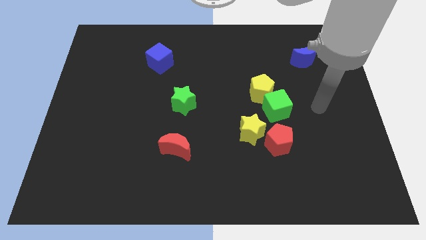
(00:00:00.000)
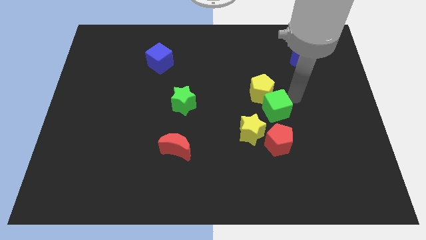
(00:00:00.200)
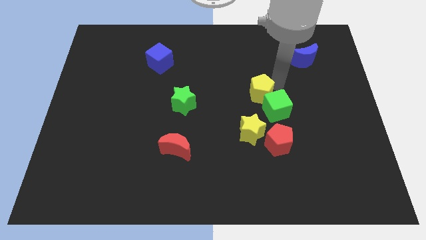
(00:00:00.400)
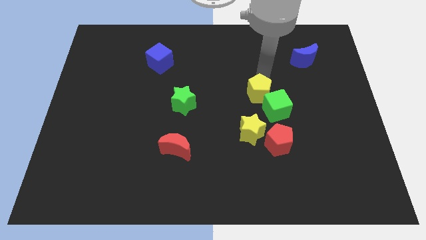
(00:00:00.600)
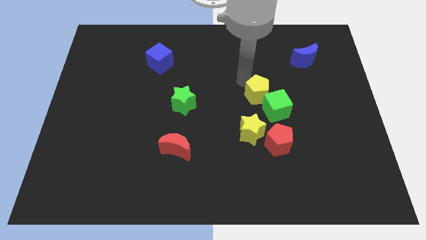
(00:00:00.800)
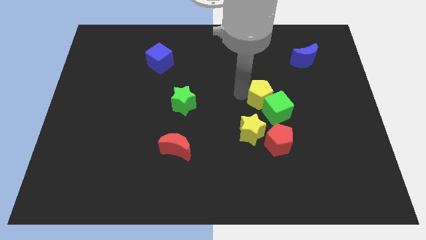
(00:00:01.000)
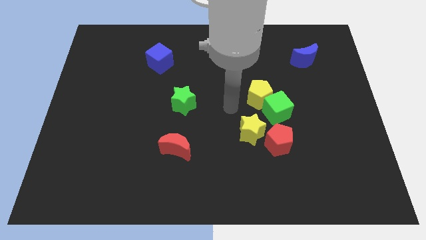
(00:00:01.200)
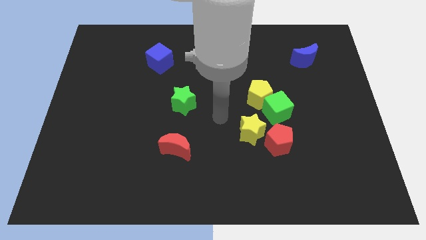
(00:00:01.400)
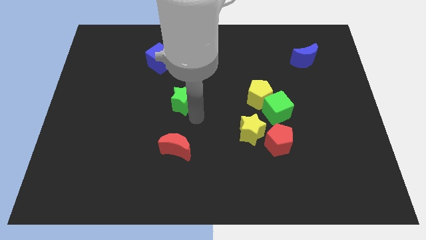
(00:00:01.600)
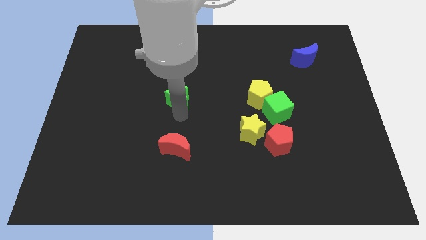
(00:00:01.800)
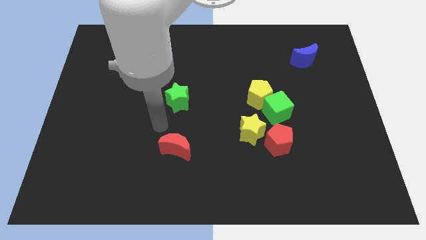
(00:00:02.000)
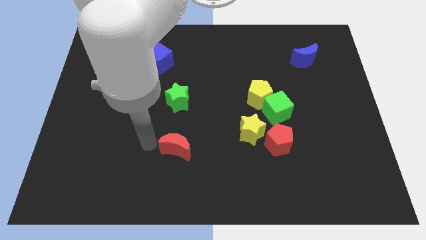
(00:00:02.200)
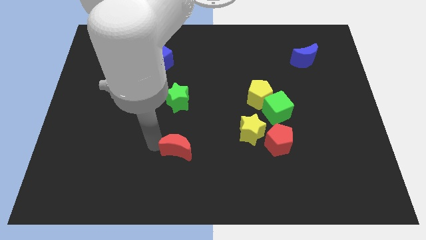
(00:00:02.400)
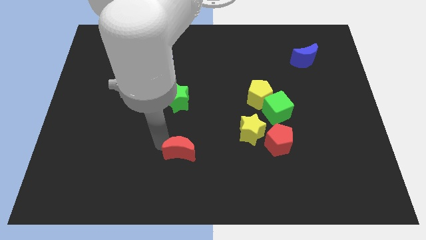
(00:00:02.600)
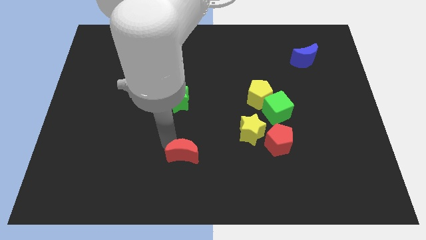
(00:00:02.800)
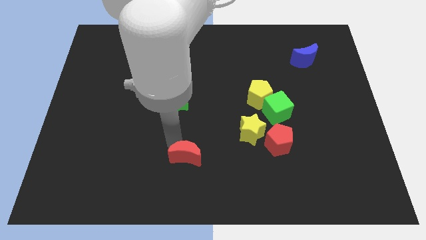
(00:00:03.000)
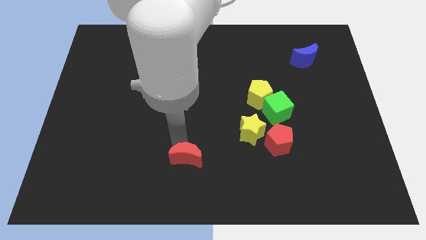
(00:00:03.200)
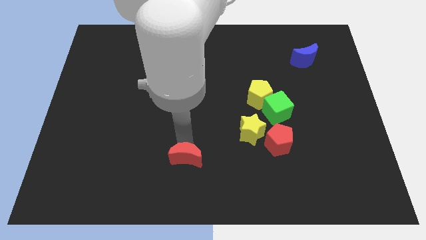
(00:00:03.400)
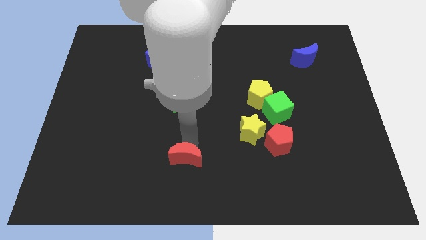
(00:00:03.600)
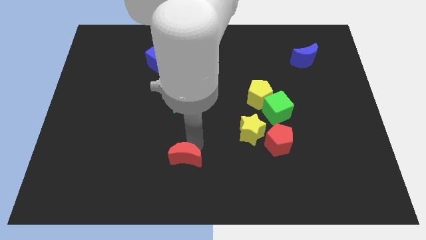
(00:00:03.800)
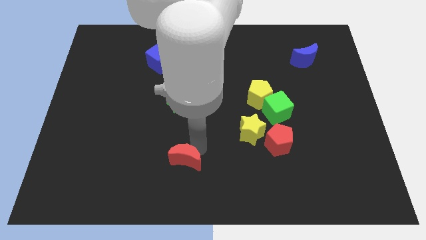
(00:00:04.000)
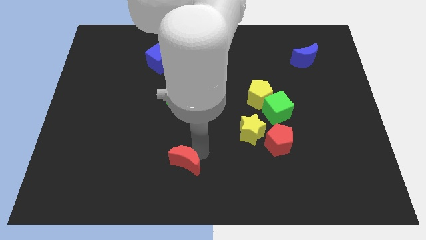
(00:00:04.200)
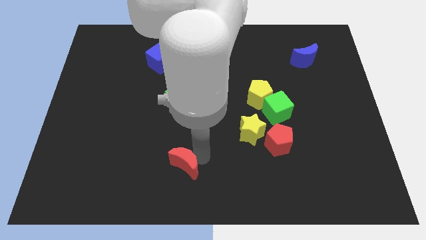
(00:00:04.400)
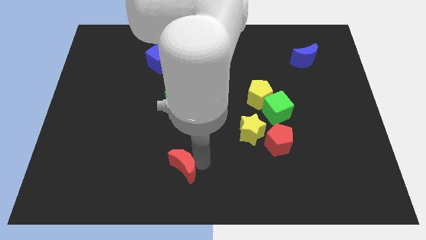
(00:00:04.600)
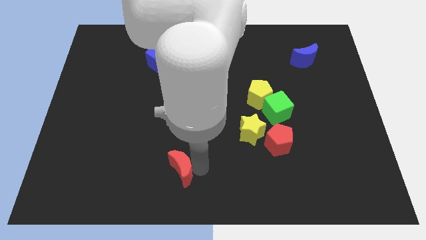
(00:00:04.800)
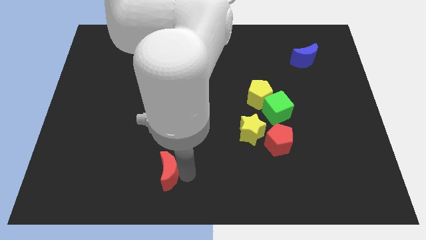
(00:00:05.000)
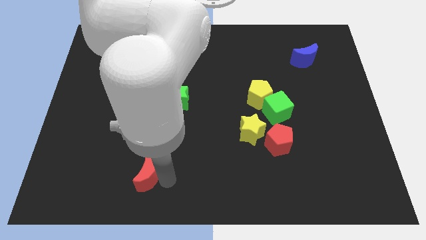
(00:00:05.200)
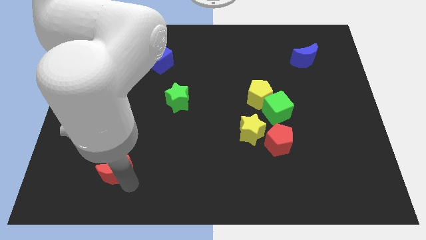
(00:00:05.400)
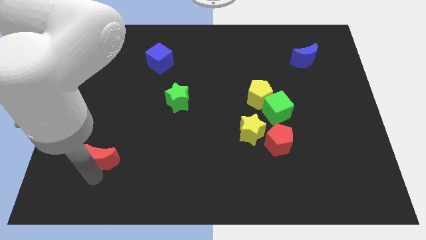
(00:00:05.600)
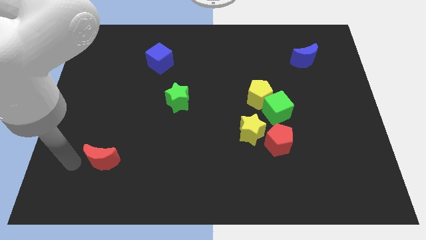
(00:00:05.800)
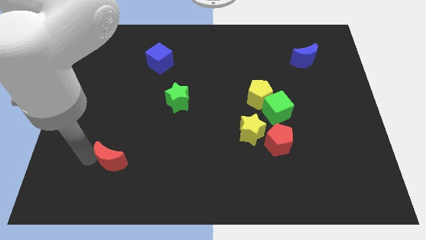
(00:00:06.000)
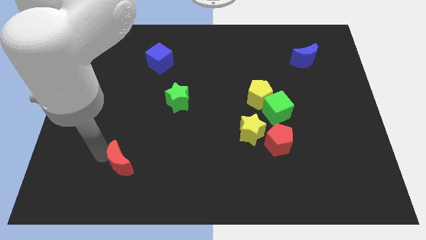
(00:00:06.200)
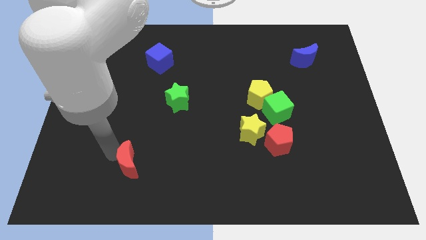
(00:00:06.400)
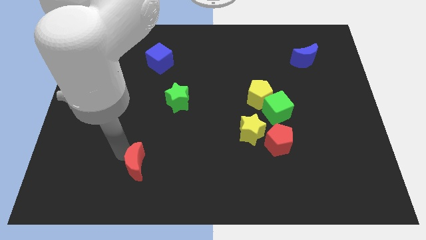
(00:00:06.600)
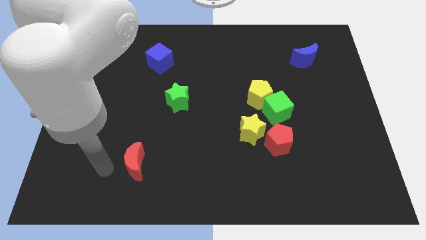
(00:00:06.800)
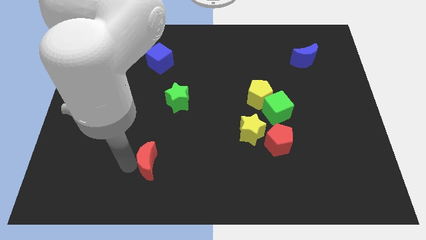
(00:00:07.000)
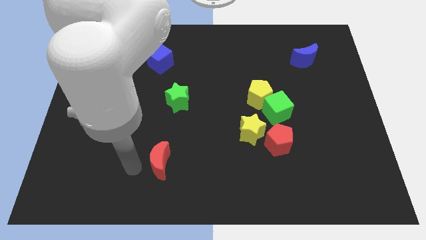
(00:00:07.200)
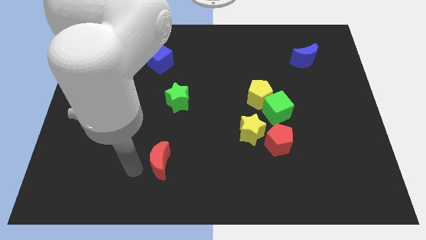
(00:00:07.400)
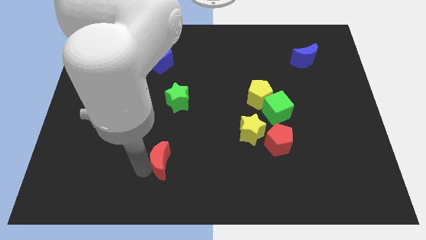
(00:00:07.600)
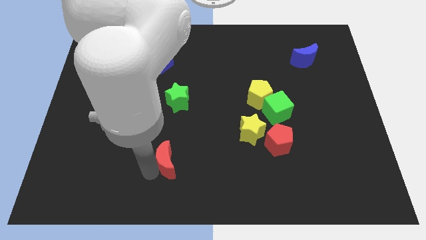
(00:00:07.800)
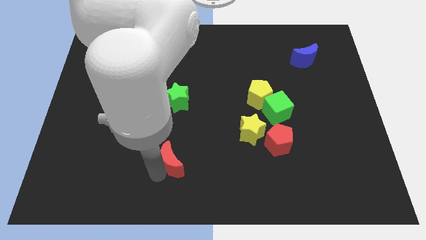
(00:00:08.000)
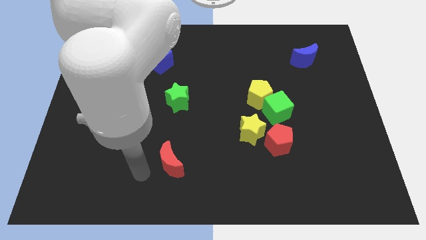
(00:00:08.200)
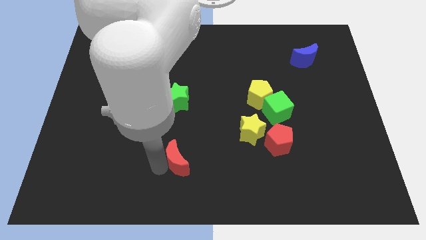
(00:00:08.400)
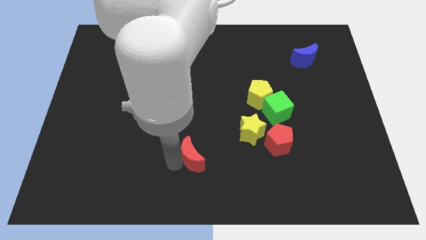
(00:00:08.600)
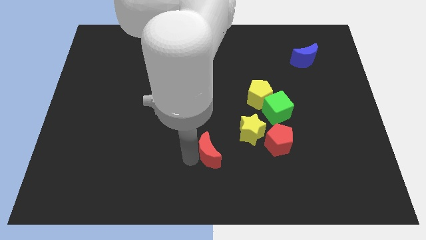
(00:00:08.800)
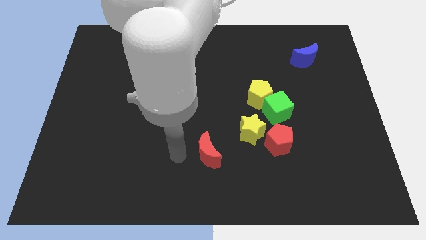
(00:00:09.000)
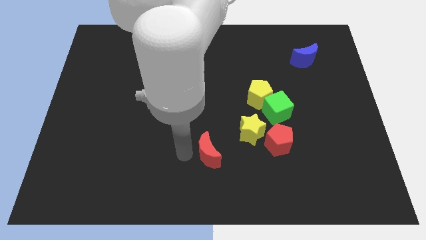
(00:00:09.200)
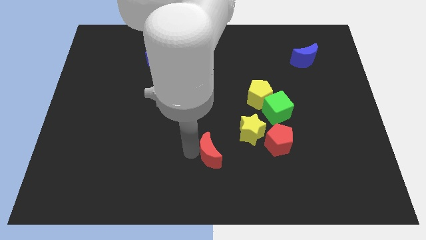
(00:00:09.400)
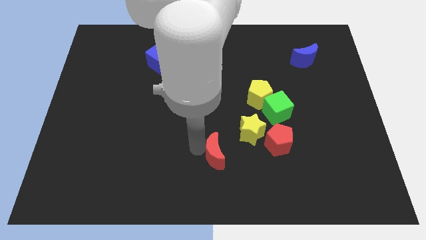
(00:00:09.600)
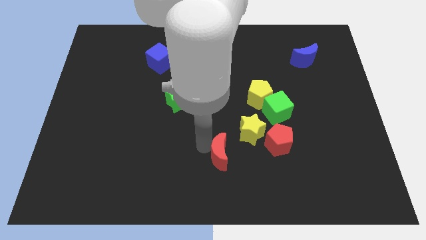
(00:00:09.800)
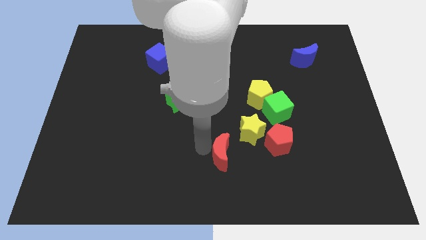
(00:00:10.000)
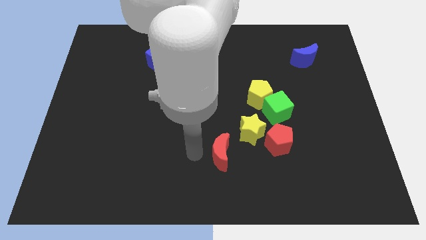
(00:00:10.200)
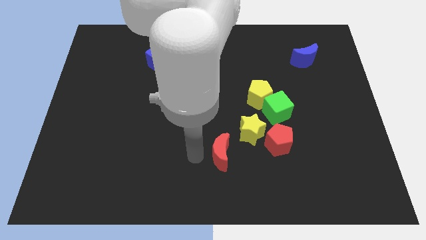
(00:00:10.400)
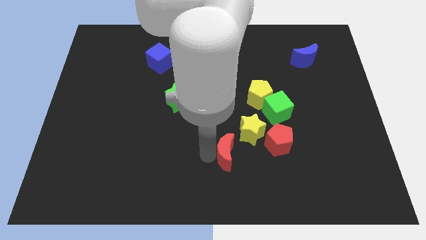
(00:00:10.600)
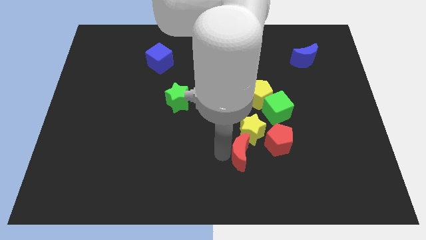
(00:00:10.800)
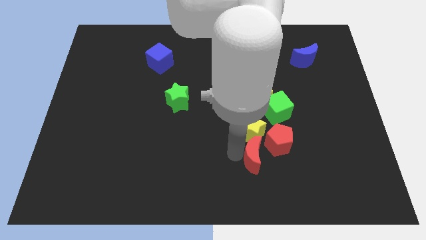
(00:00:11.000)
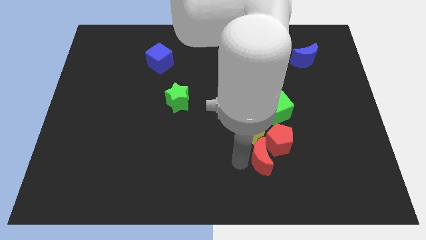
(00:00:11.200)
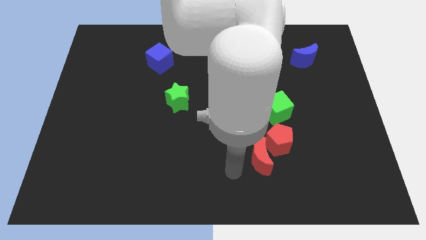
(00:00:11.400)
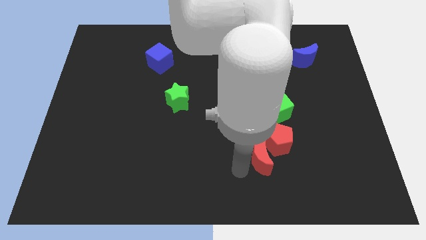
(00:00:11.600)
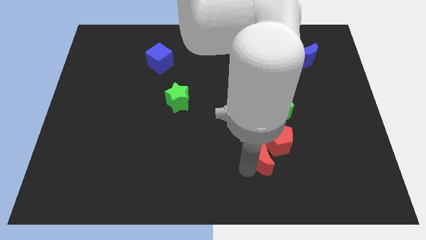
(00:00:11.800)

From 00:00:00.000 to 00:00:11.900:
move the red moon to the bottom side of the green cube
